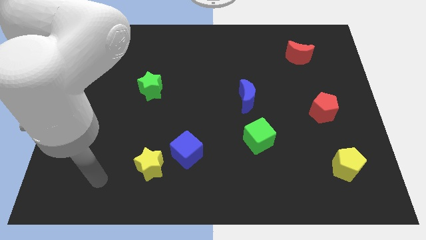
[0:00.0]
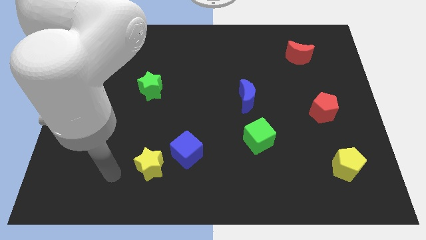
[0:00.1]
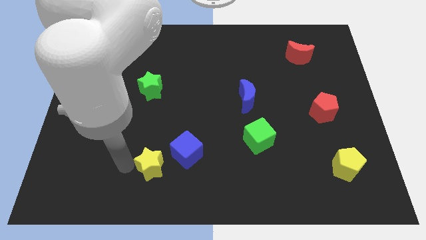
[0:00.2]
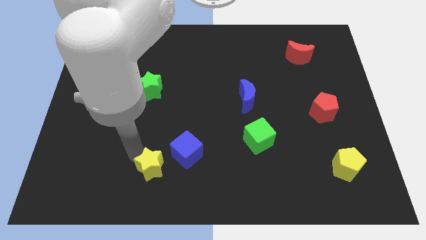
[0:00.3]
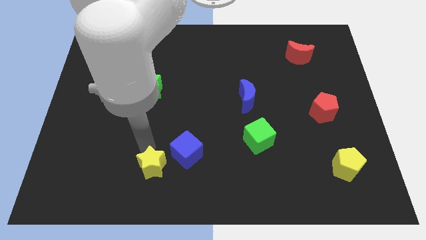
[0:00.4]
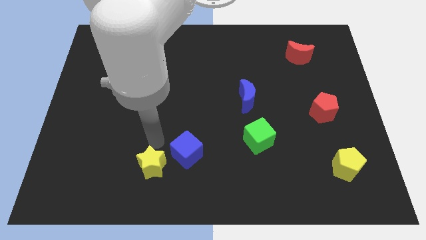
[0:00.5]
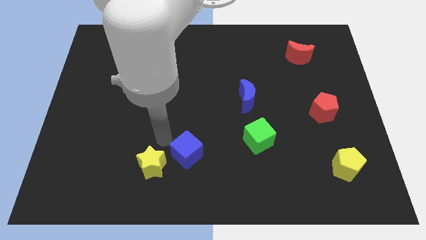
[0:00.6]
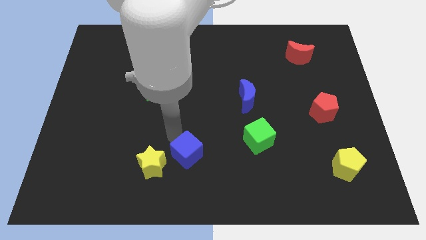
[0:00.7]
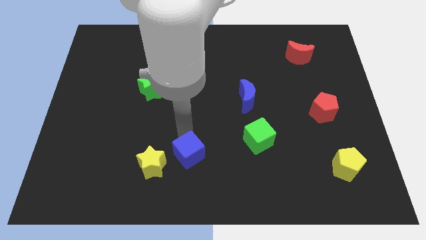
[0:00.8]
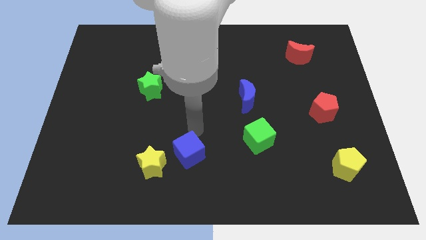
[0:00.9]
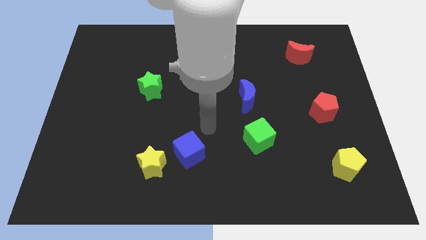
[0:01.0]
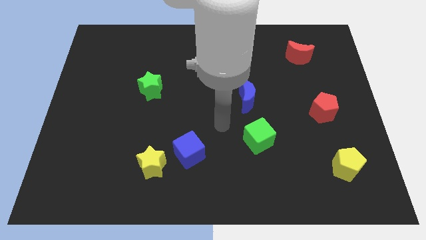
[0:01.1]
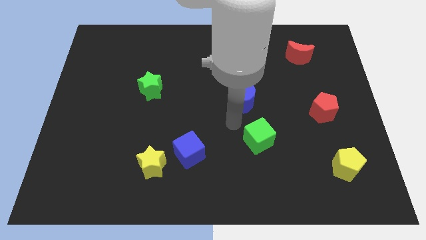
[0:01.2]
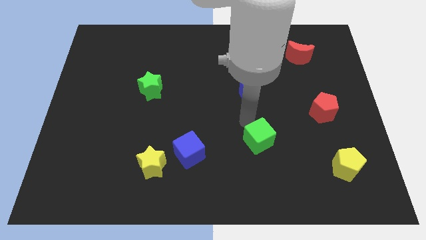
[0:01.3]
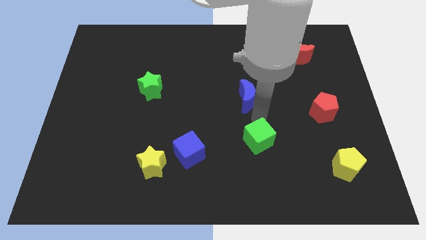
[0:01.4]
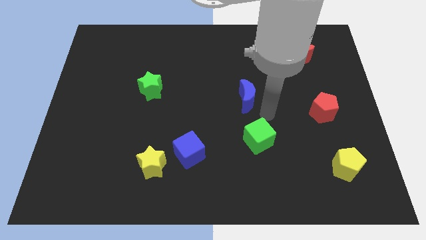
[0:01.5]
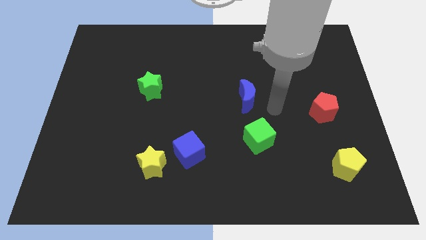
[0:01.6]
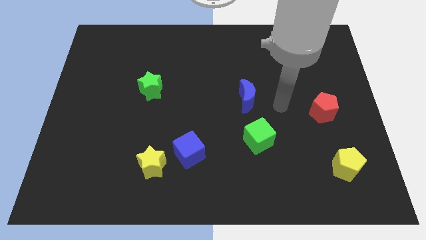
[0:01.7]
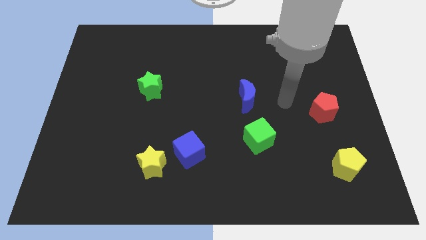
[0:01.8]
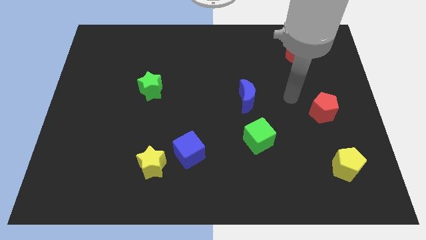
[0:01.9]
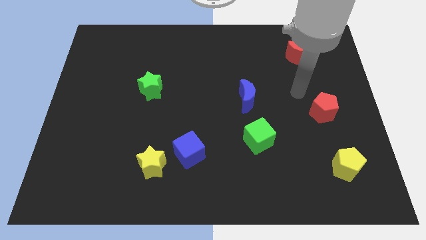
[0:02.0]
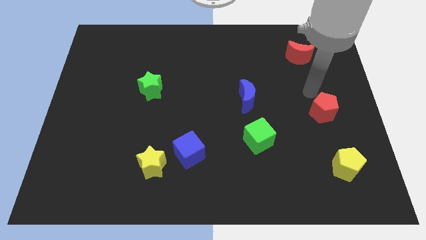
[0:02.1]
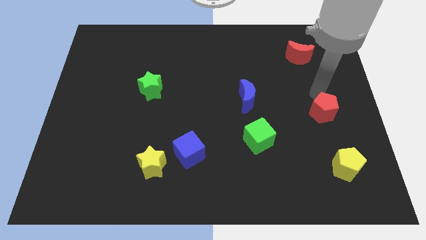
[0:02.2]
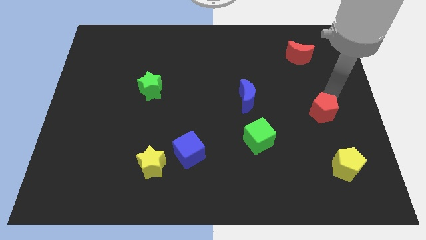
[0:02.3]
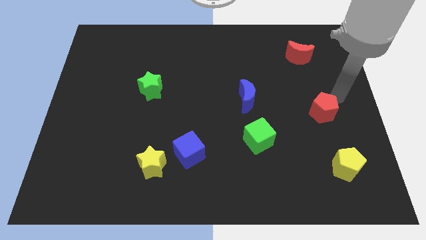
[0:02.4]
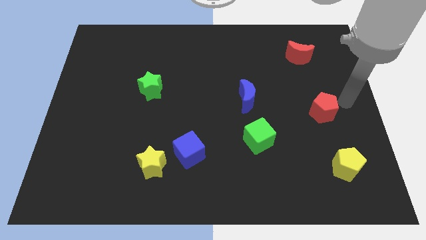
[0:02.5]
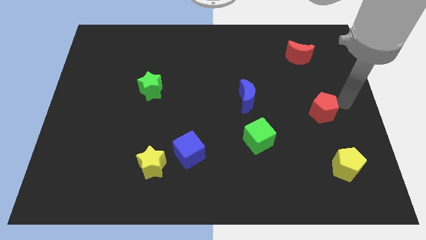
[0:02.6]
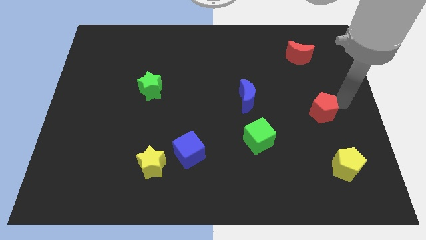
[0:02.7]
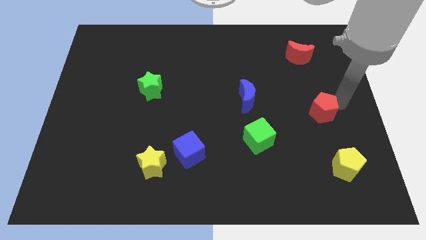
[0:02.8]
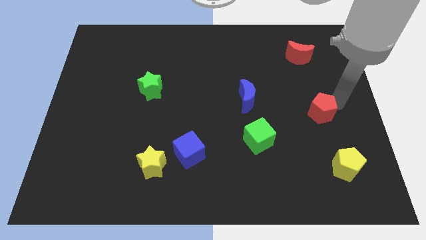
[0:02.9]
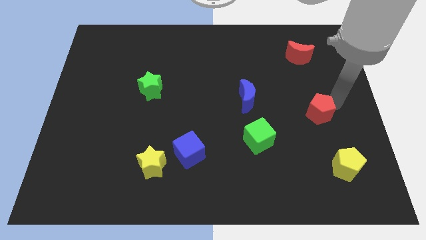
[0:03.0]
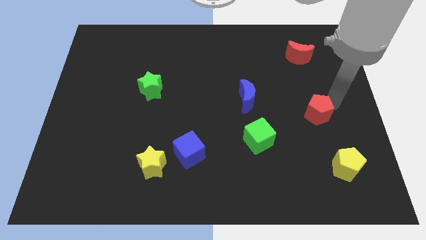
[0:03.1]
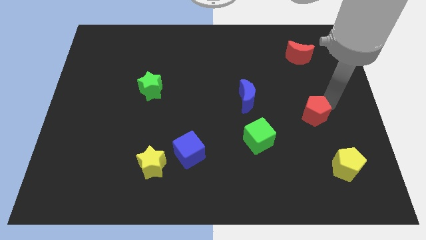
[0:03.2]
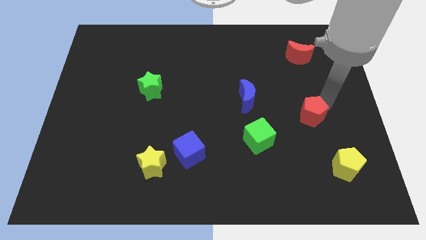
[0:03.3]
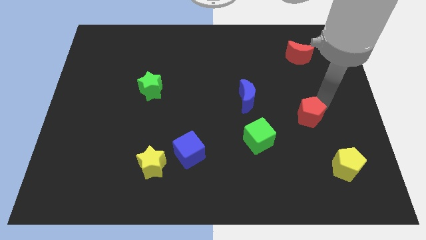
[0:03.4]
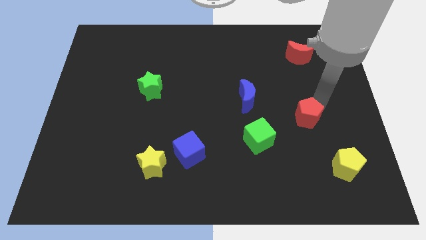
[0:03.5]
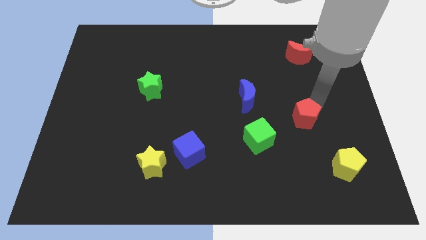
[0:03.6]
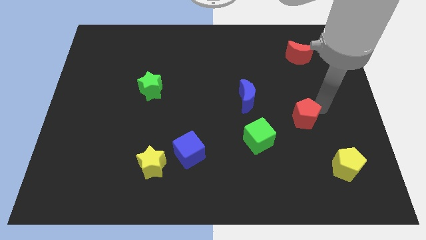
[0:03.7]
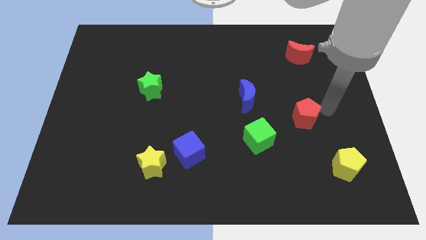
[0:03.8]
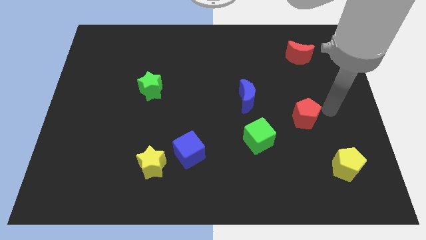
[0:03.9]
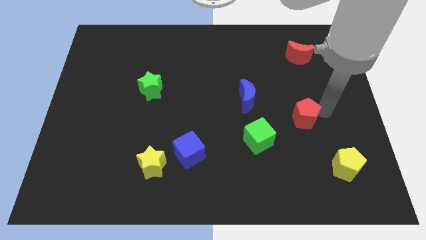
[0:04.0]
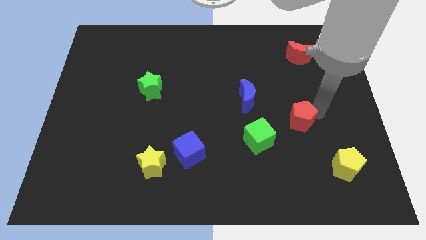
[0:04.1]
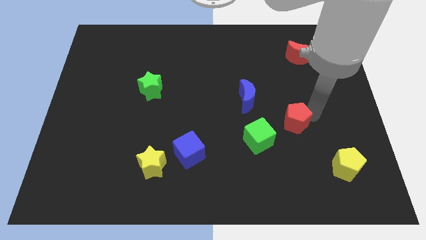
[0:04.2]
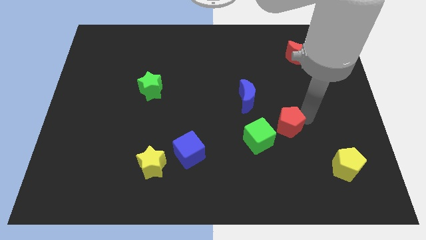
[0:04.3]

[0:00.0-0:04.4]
move the red pentagon left a bit

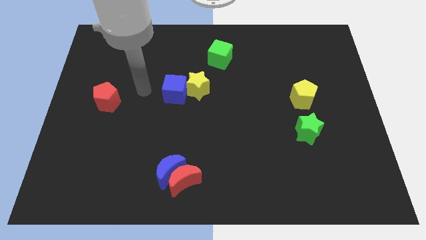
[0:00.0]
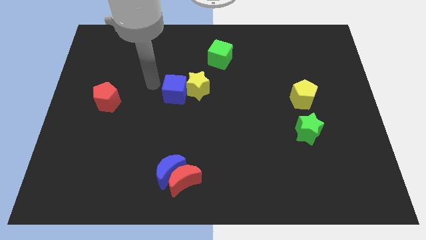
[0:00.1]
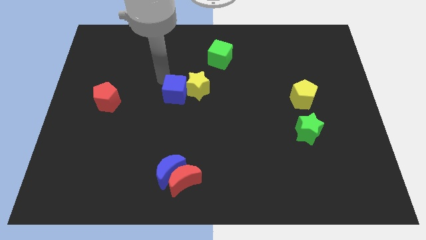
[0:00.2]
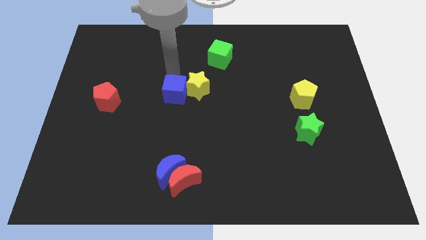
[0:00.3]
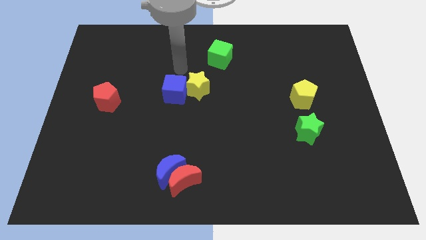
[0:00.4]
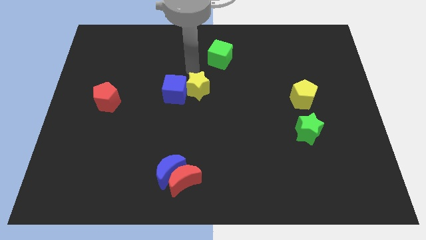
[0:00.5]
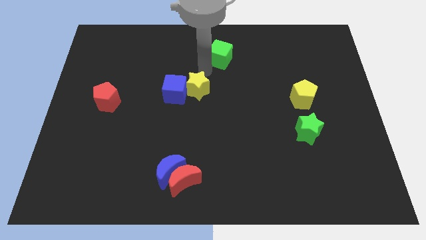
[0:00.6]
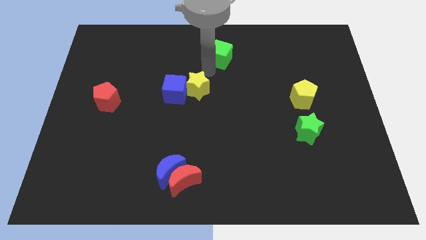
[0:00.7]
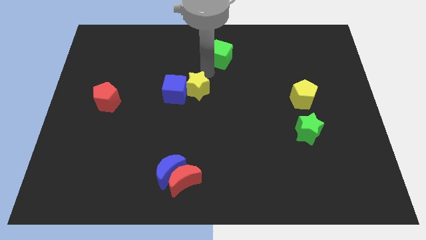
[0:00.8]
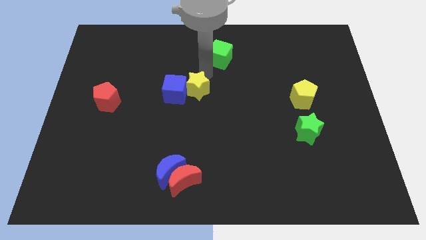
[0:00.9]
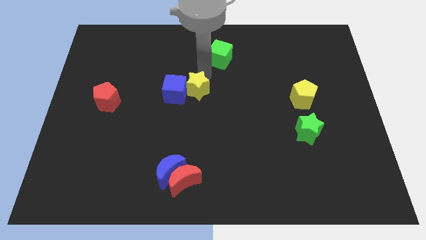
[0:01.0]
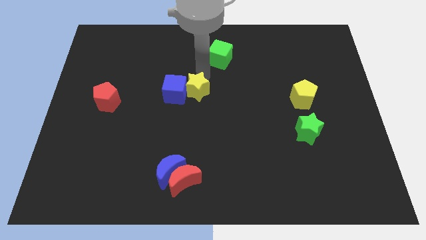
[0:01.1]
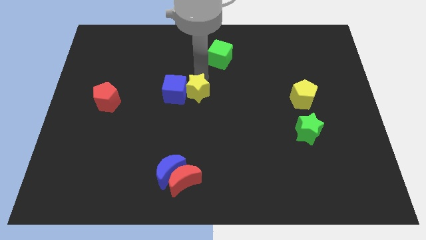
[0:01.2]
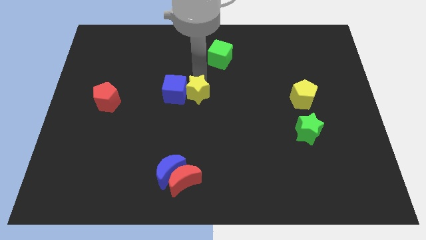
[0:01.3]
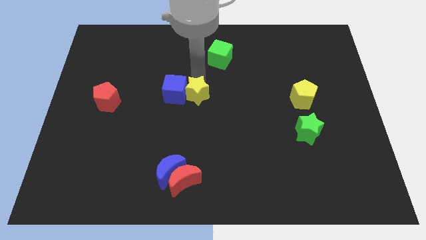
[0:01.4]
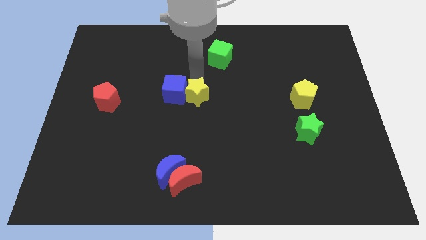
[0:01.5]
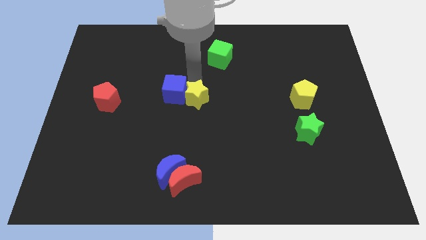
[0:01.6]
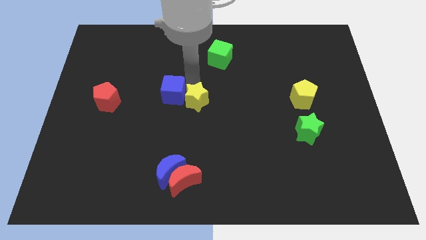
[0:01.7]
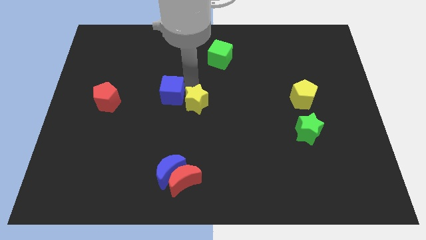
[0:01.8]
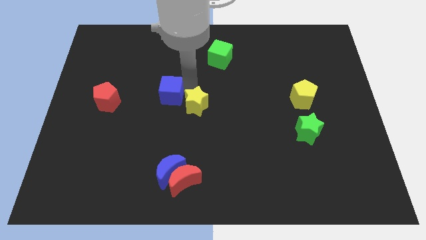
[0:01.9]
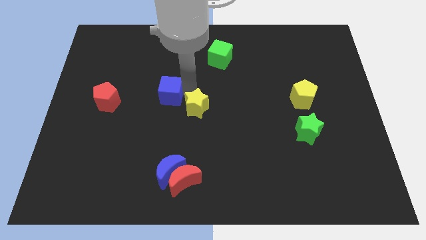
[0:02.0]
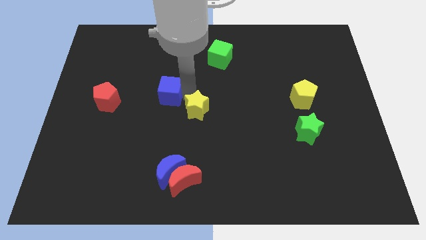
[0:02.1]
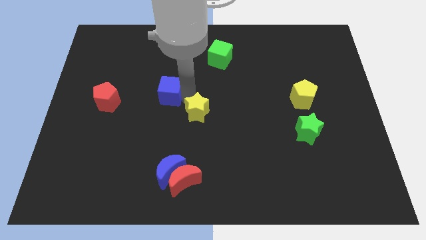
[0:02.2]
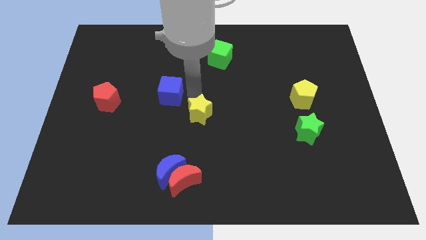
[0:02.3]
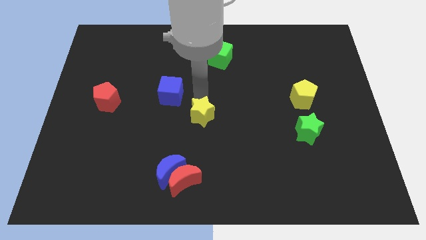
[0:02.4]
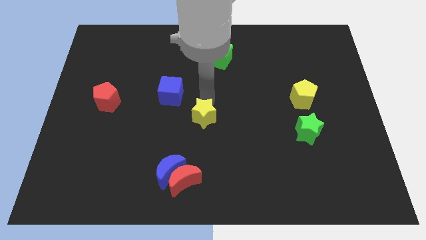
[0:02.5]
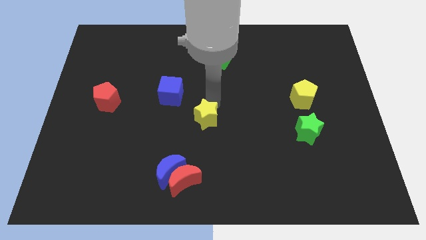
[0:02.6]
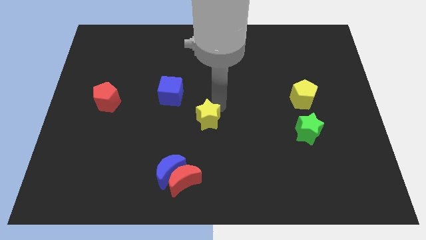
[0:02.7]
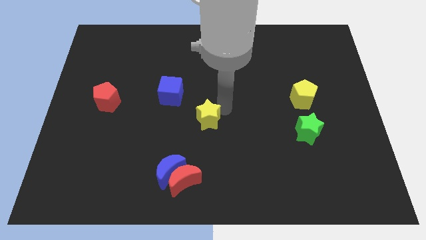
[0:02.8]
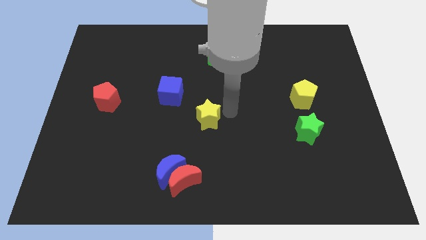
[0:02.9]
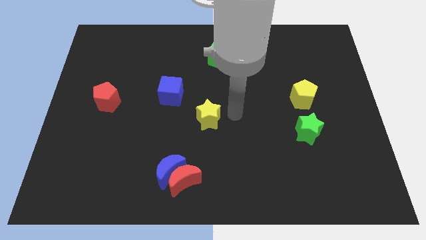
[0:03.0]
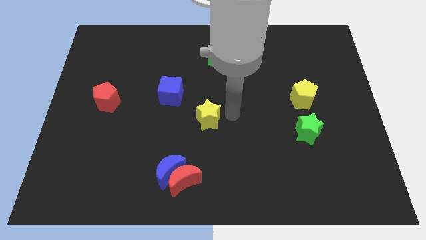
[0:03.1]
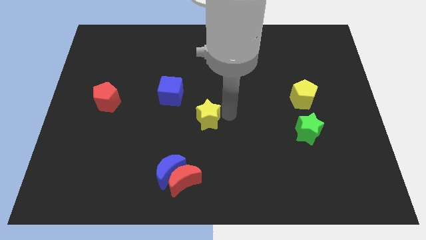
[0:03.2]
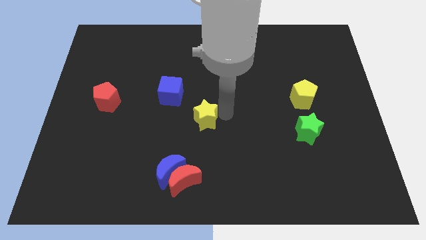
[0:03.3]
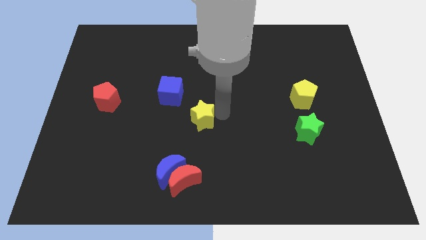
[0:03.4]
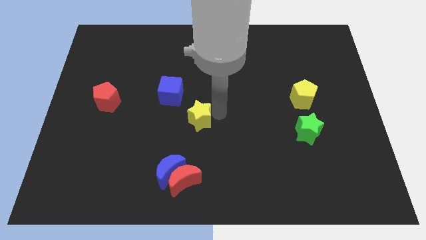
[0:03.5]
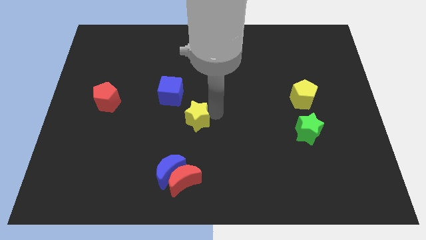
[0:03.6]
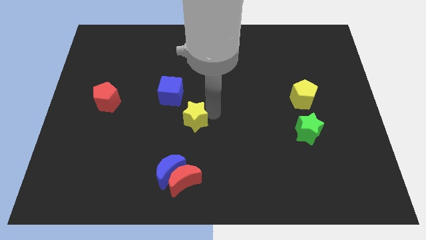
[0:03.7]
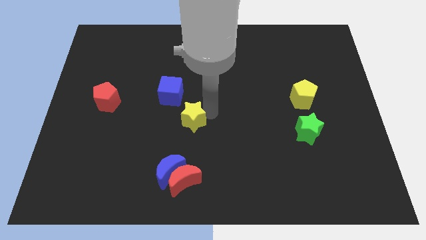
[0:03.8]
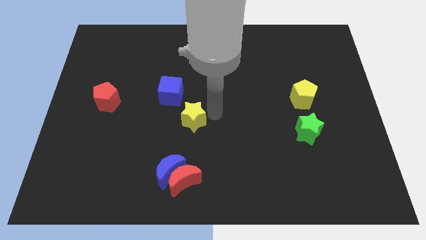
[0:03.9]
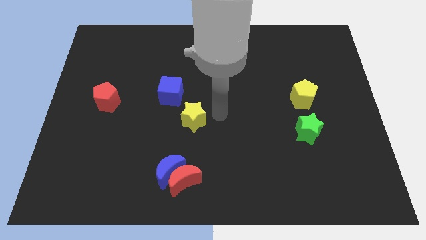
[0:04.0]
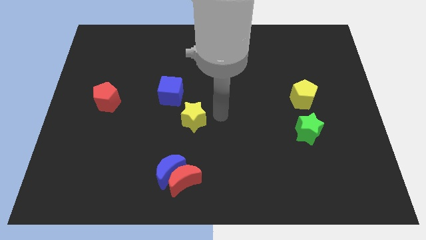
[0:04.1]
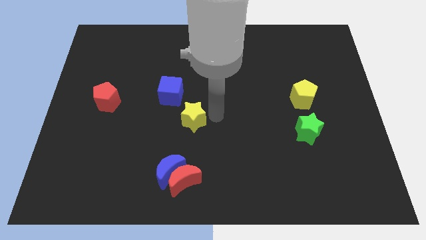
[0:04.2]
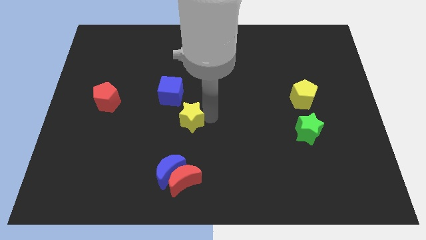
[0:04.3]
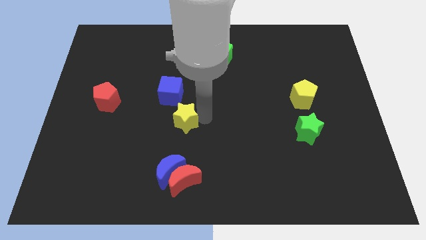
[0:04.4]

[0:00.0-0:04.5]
move the yellow star a little bit diagonally down and to the left
